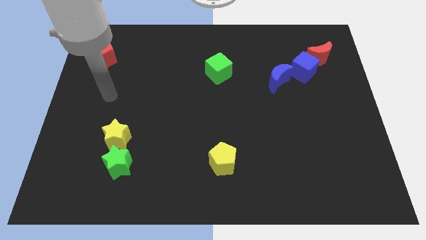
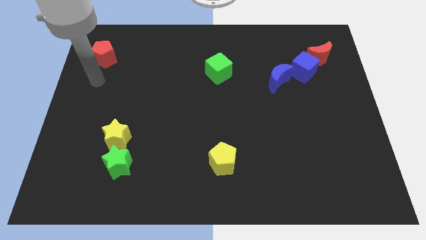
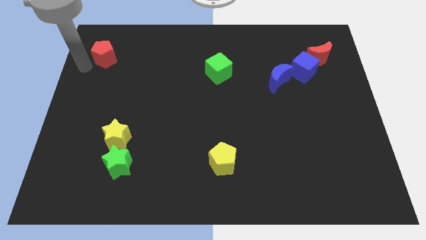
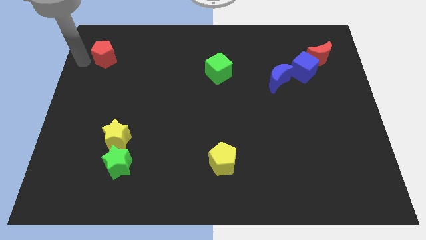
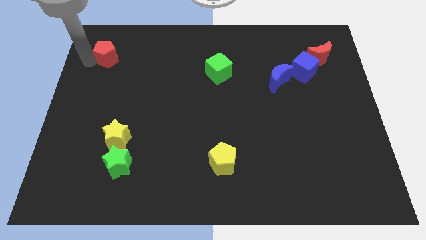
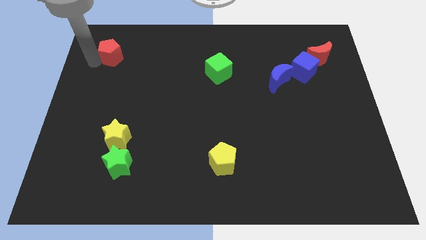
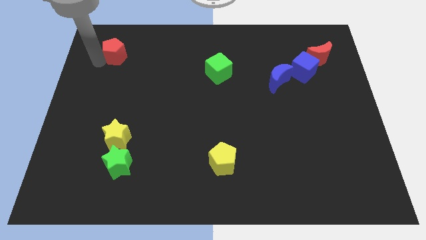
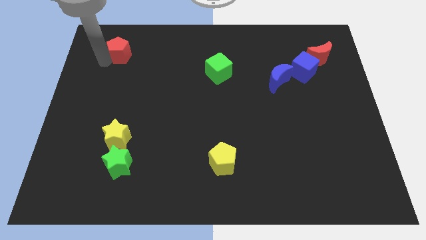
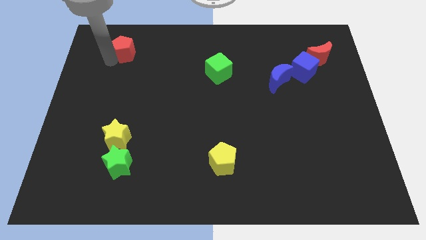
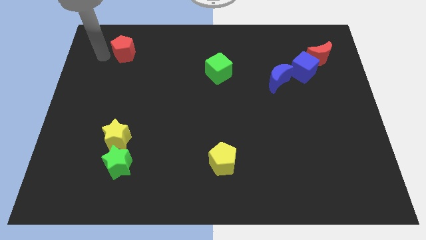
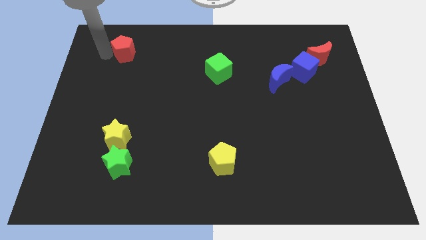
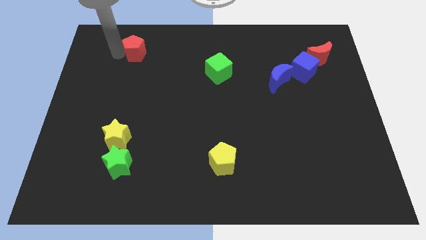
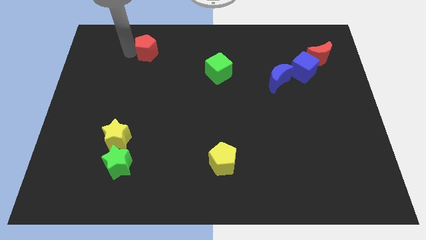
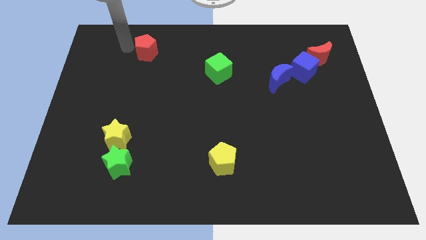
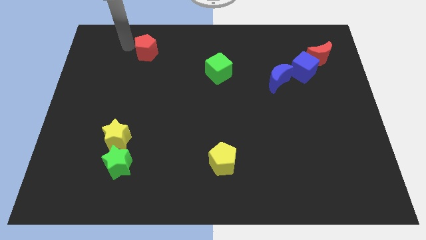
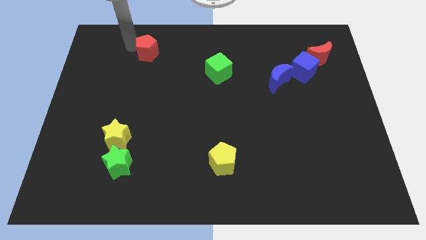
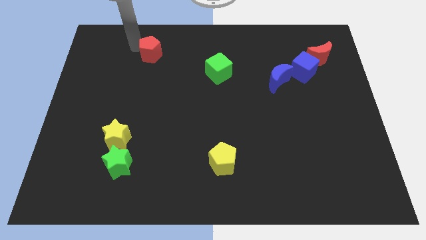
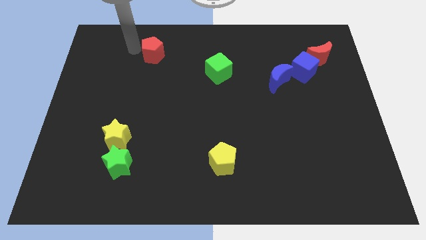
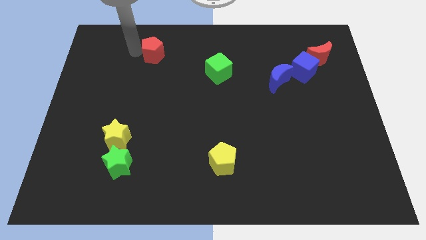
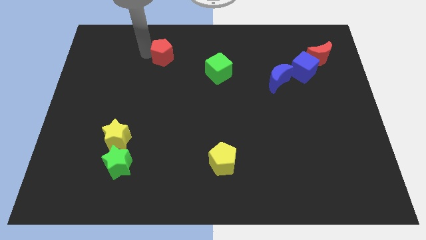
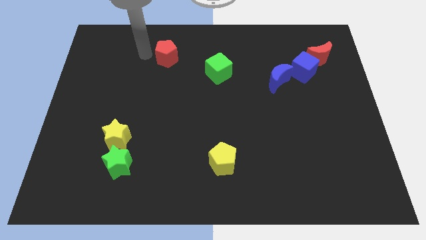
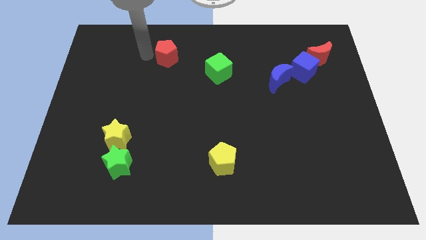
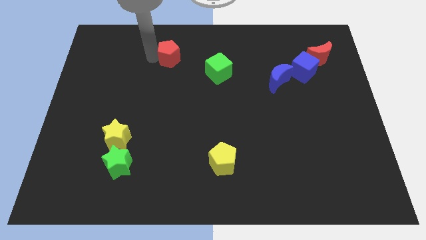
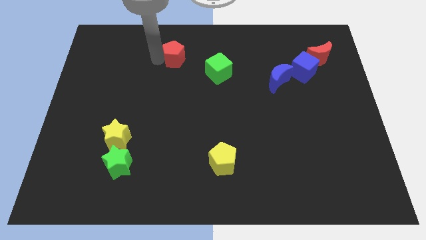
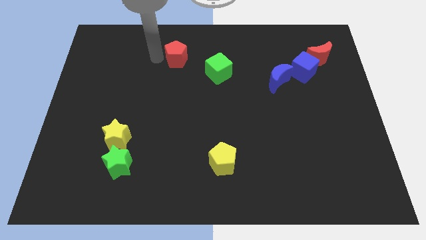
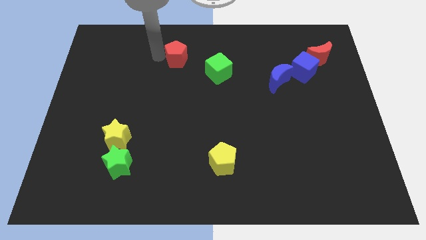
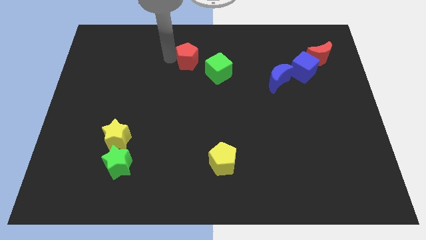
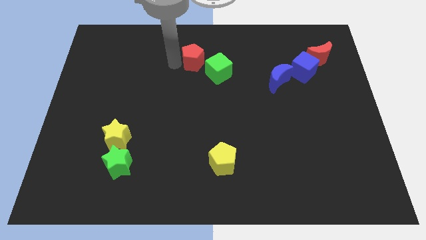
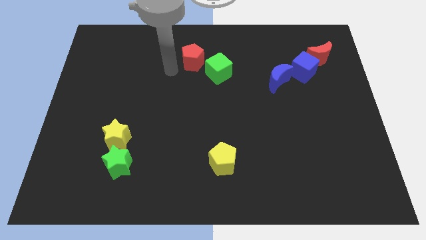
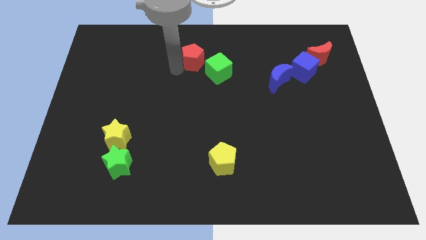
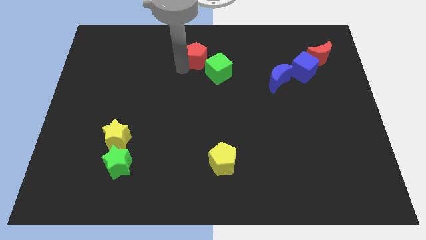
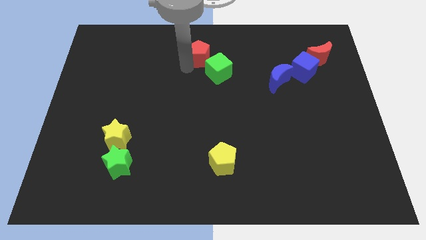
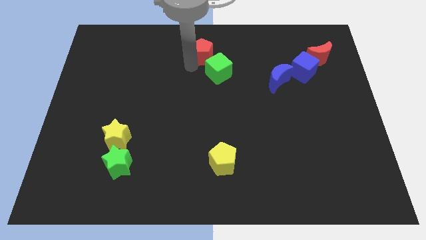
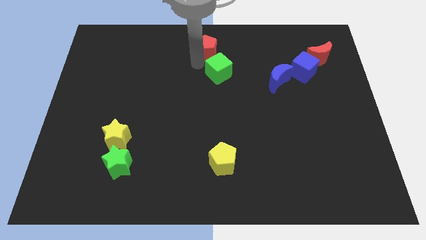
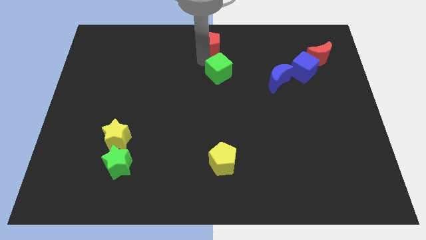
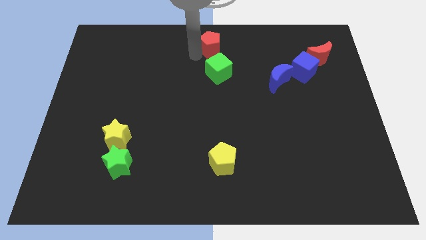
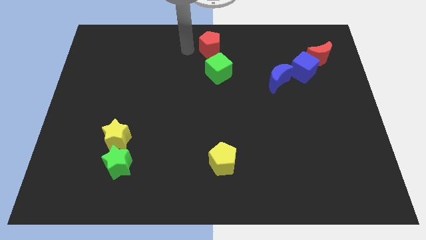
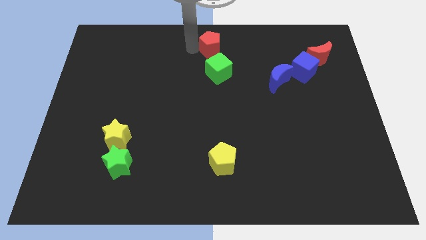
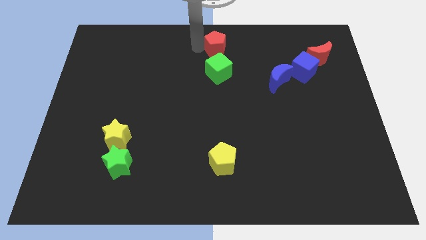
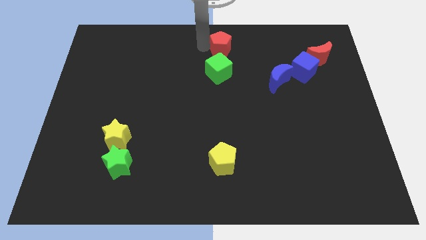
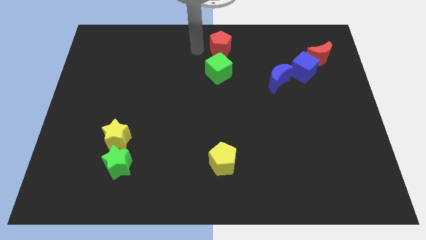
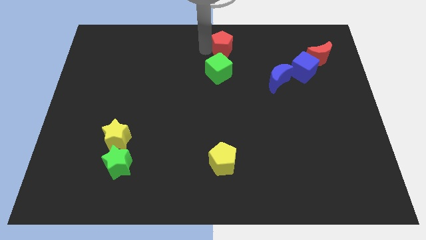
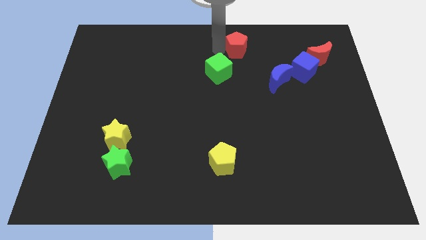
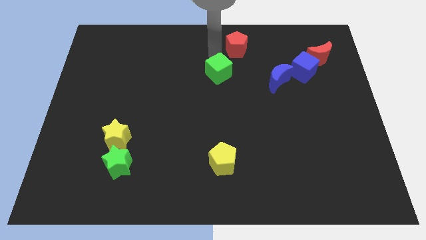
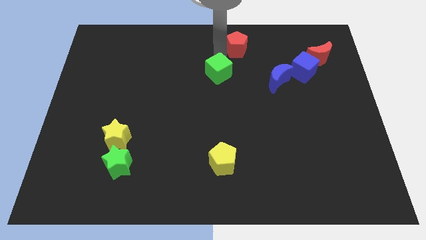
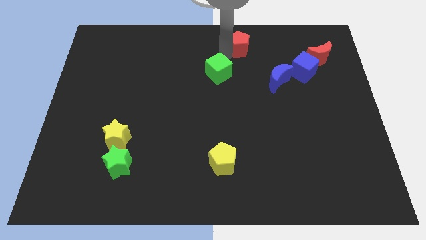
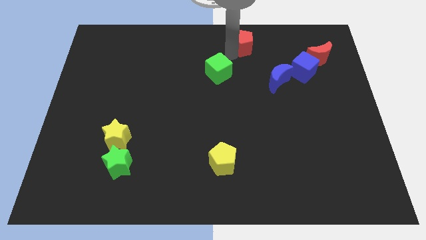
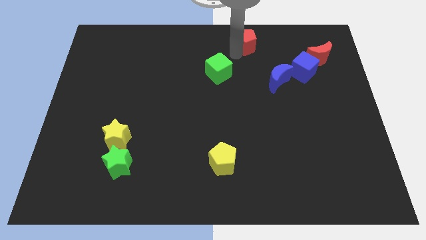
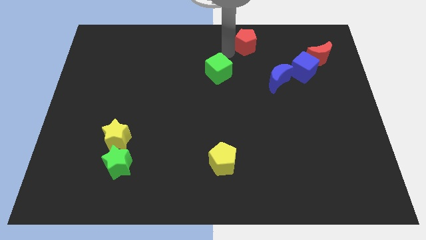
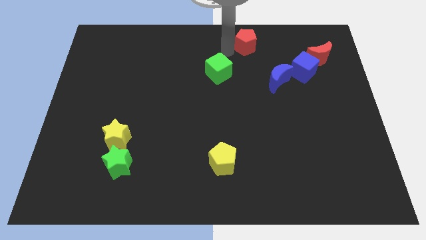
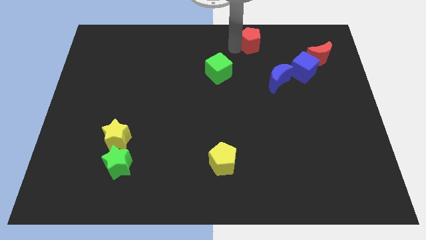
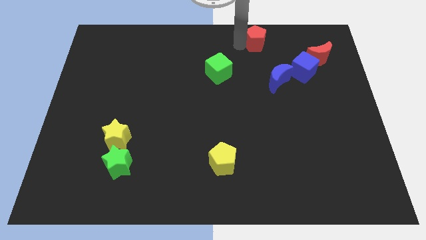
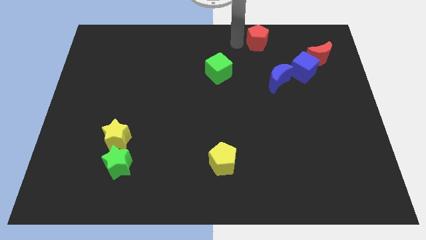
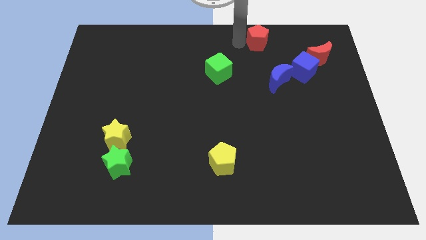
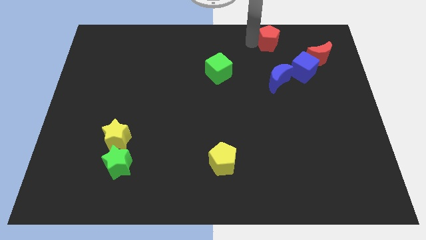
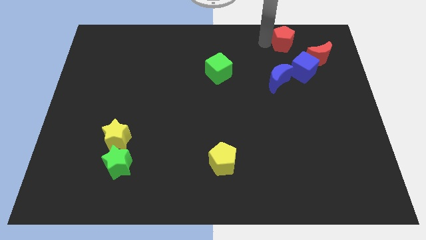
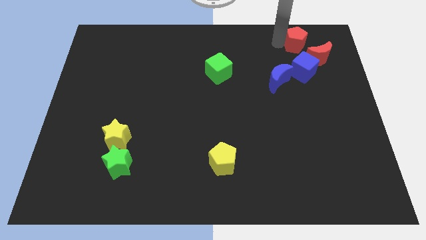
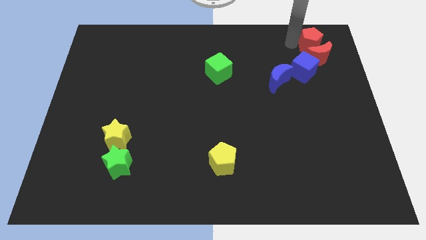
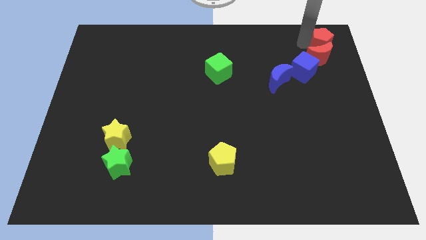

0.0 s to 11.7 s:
slide the red pentagon to the upper right corner

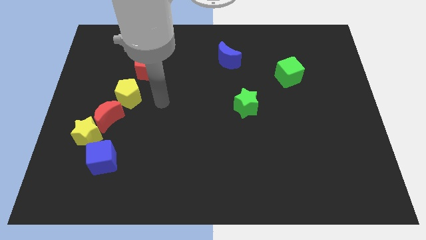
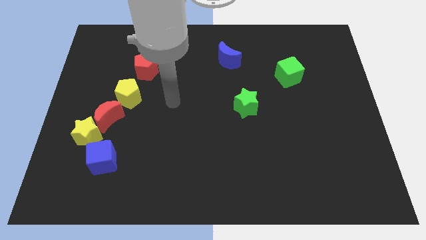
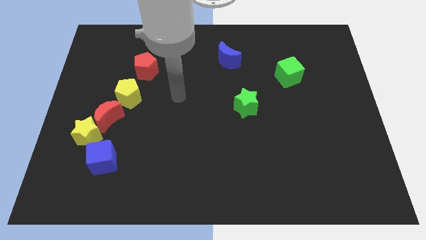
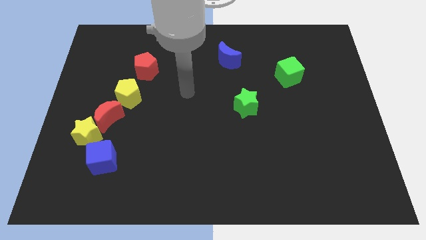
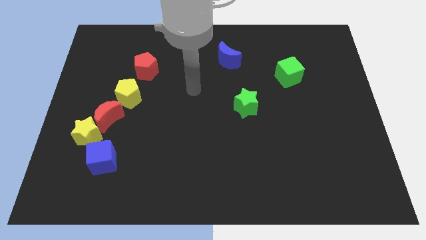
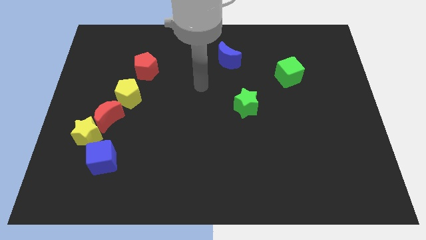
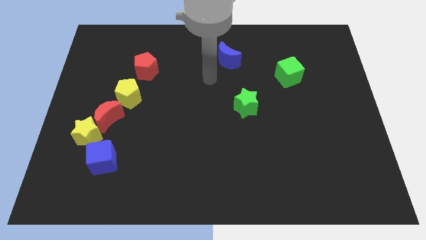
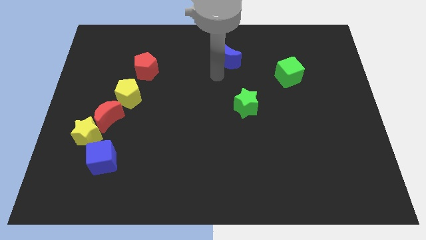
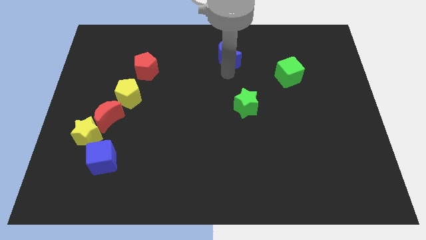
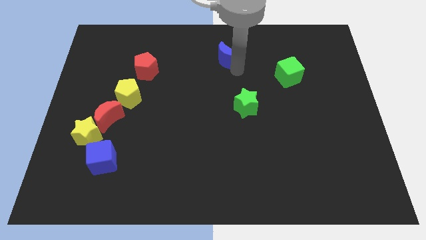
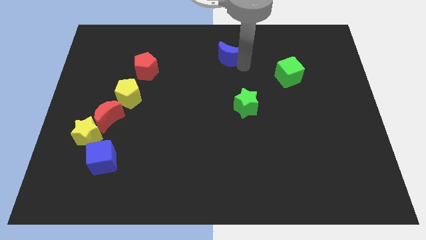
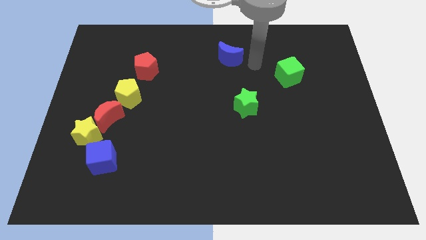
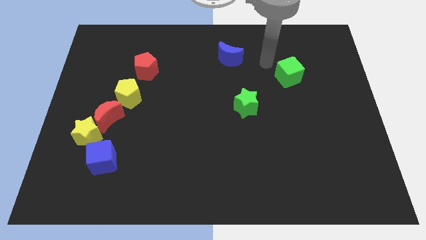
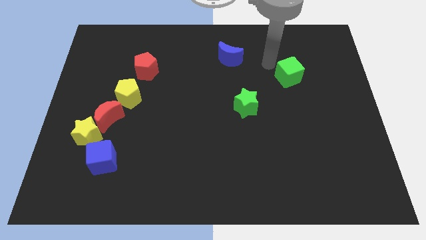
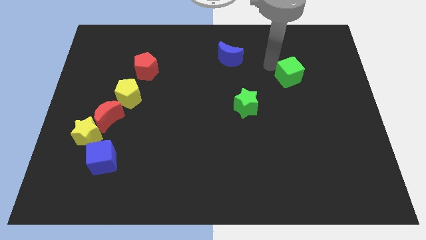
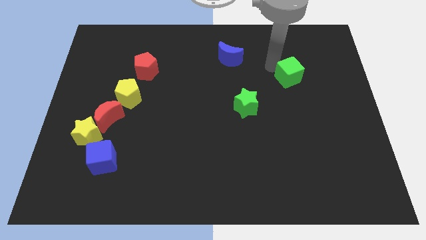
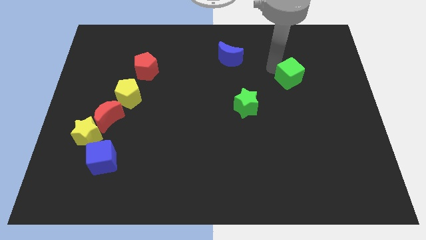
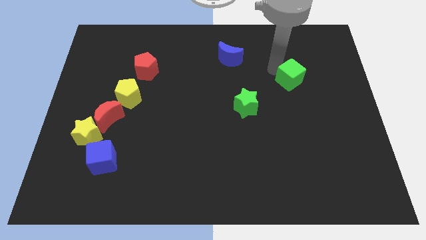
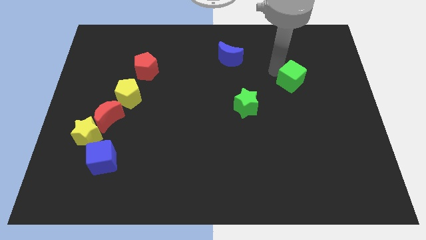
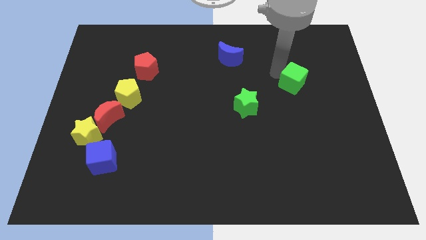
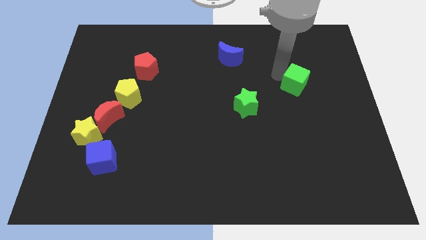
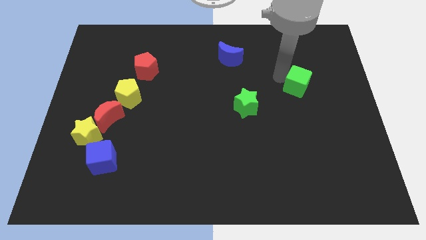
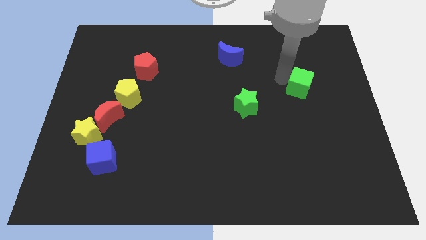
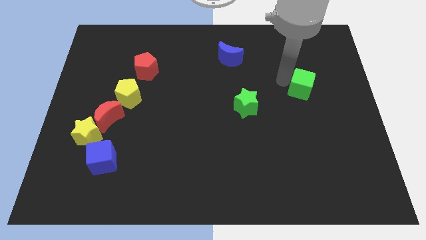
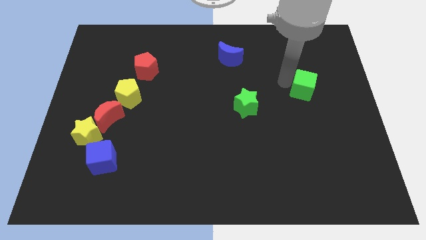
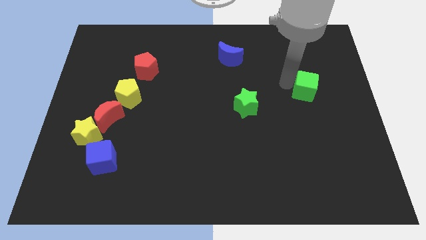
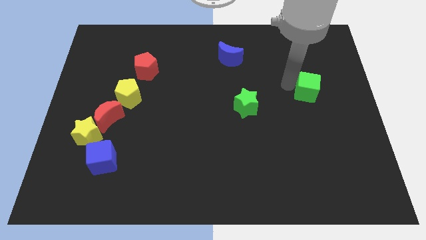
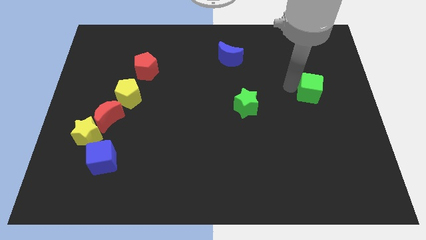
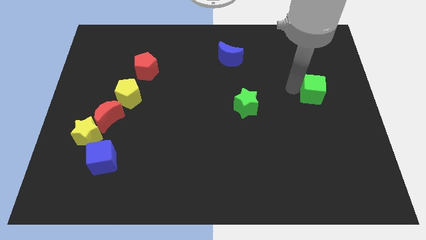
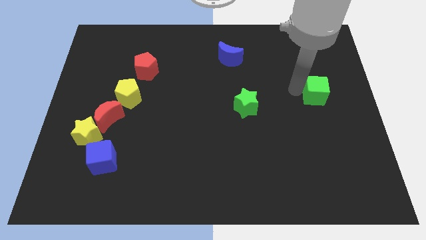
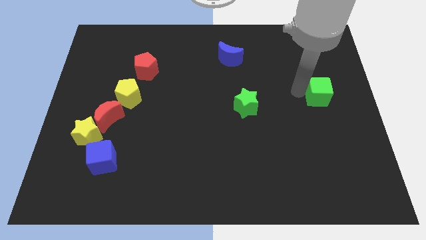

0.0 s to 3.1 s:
move the green cube to the right side
